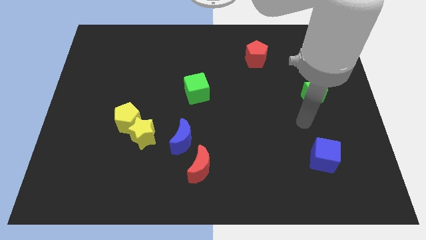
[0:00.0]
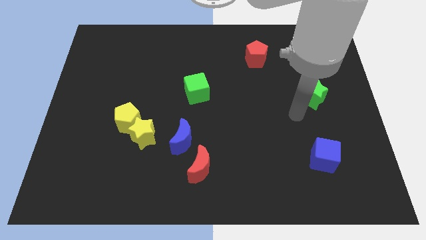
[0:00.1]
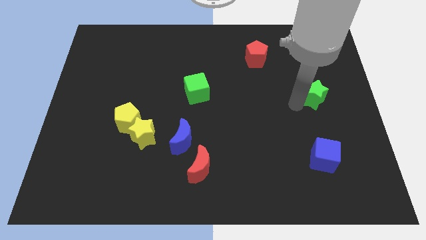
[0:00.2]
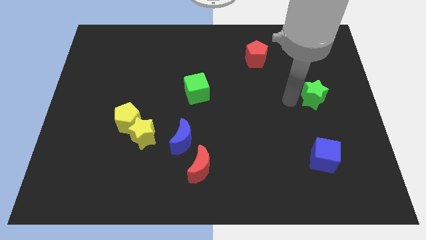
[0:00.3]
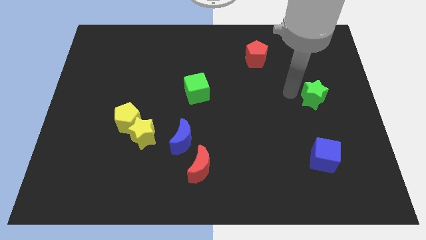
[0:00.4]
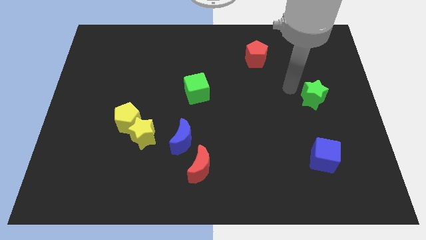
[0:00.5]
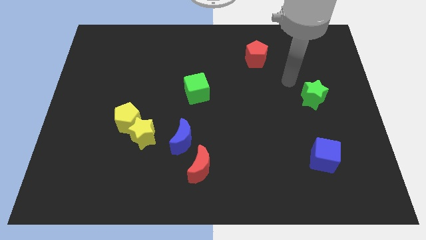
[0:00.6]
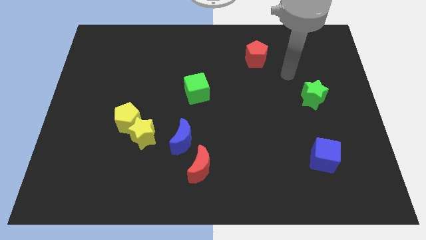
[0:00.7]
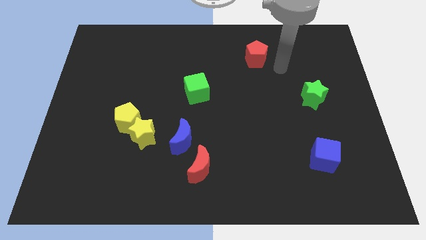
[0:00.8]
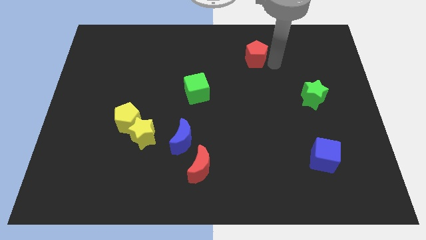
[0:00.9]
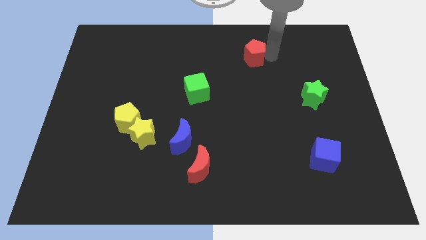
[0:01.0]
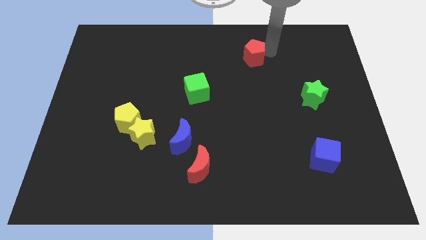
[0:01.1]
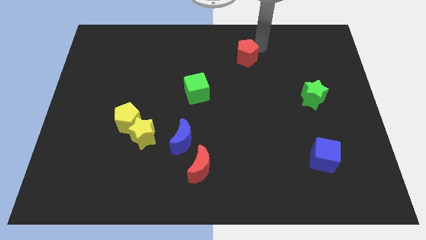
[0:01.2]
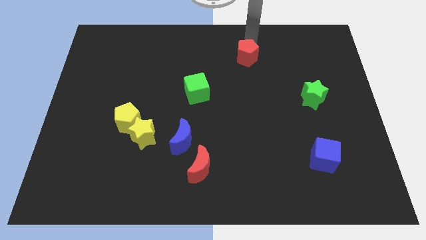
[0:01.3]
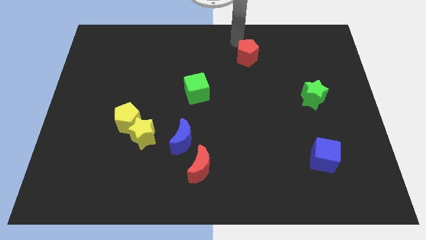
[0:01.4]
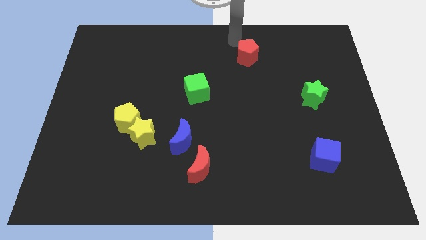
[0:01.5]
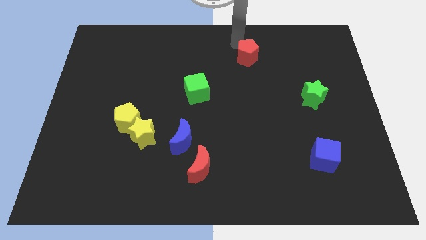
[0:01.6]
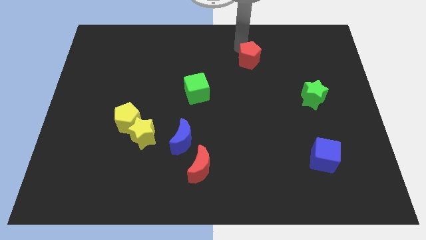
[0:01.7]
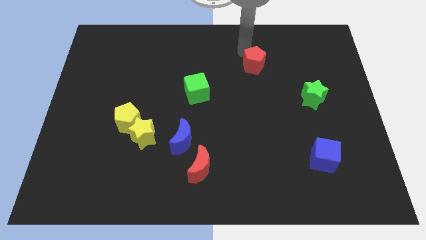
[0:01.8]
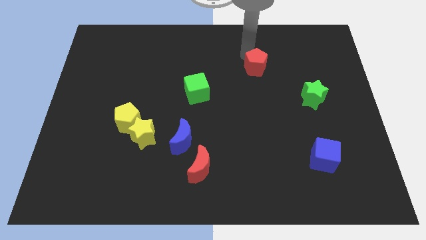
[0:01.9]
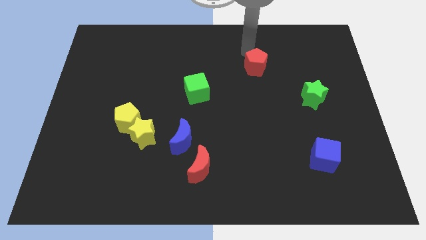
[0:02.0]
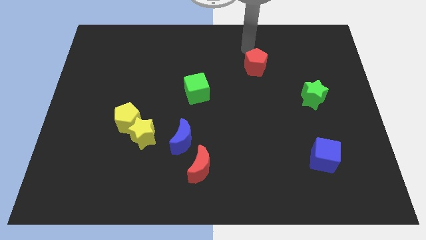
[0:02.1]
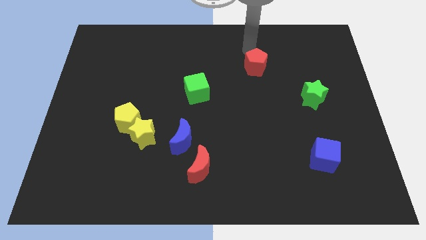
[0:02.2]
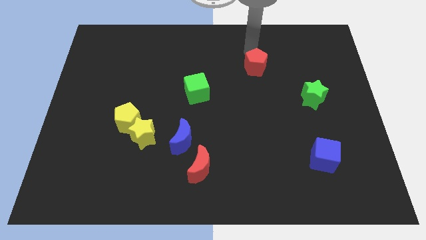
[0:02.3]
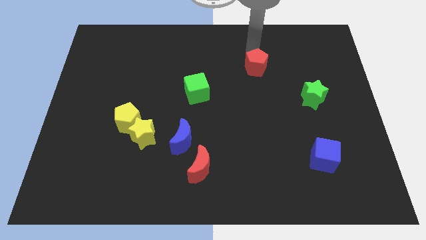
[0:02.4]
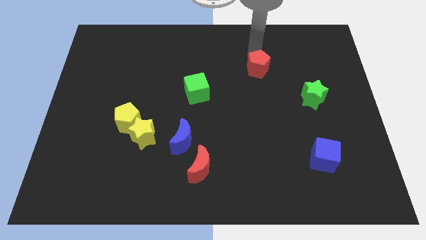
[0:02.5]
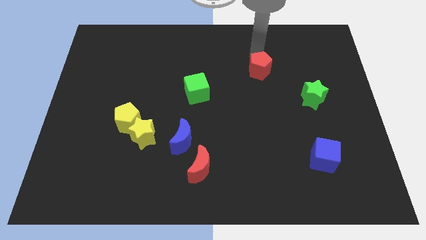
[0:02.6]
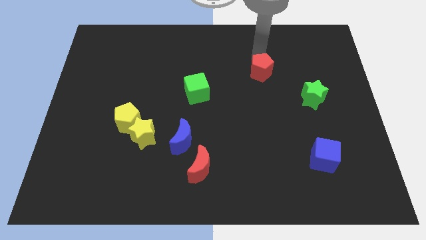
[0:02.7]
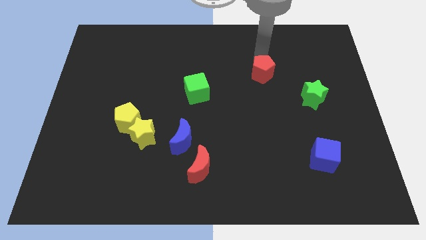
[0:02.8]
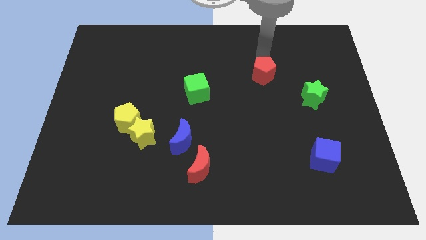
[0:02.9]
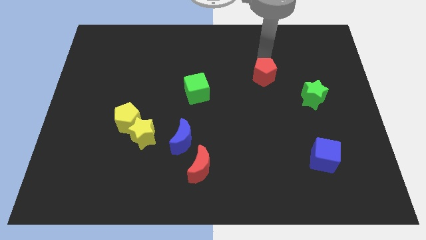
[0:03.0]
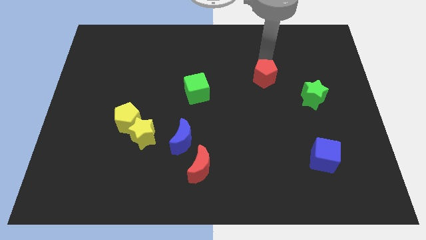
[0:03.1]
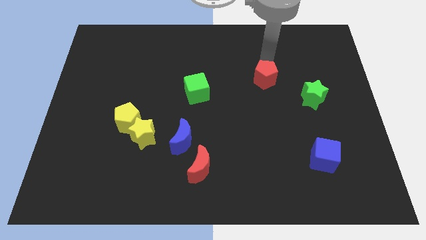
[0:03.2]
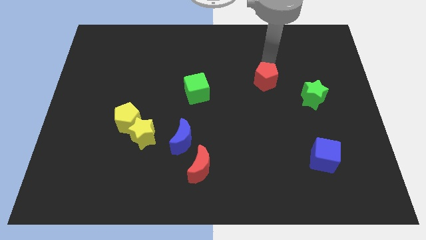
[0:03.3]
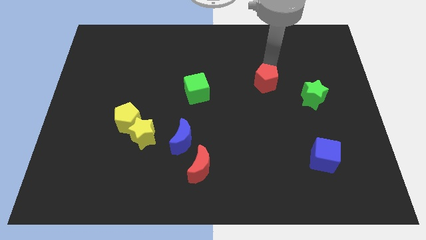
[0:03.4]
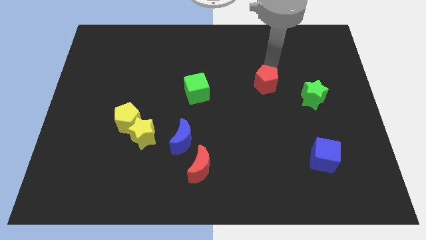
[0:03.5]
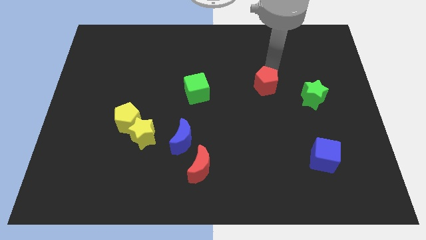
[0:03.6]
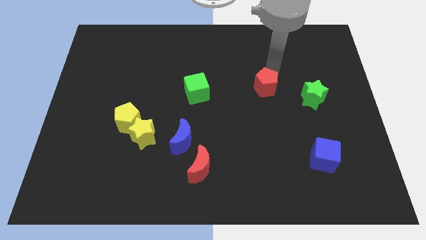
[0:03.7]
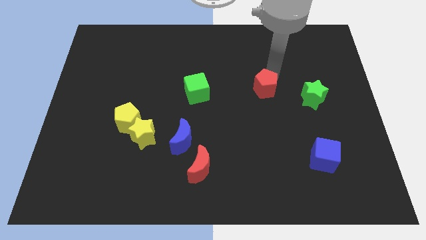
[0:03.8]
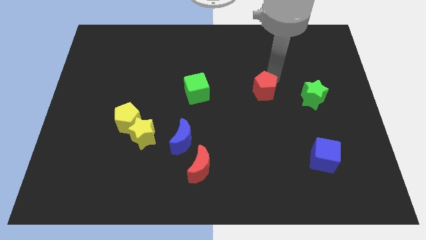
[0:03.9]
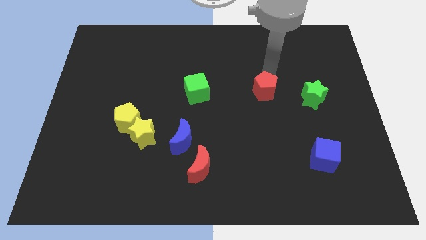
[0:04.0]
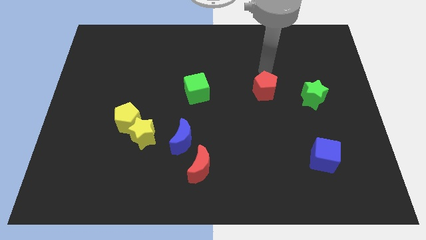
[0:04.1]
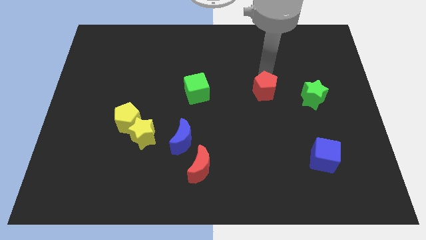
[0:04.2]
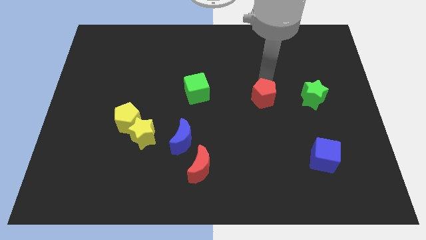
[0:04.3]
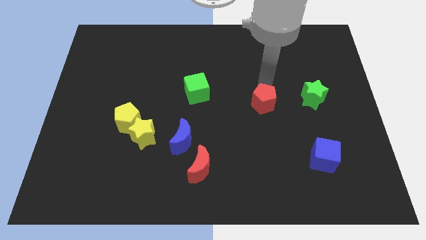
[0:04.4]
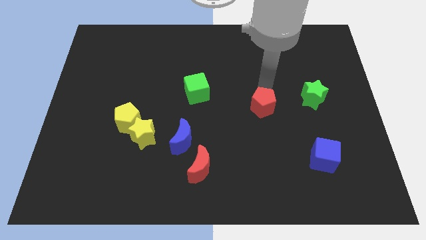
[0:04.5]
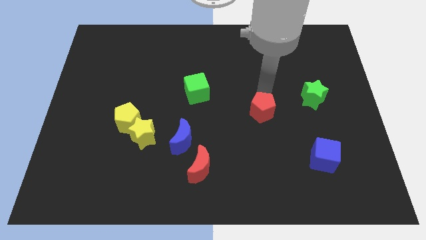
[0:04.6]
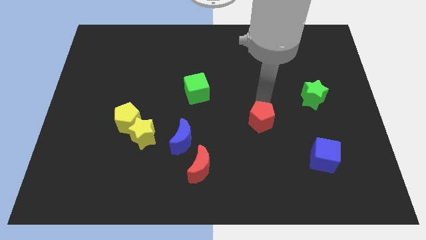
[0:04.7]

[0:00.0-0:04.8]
push the red pentagon downwards

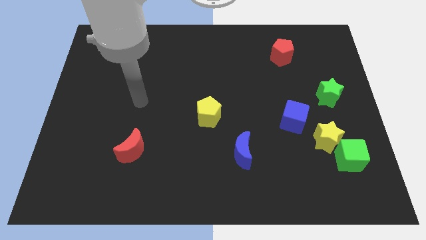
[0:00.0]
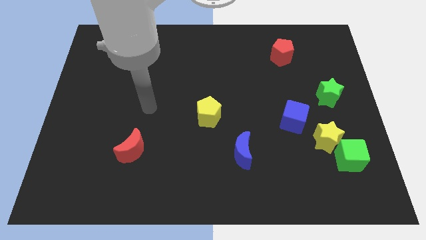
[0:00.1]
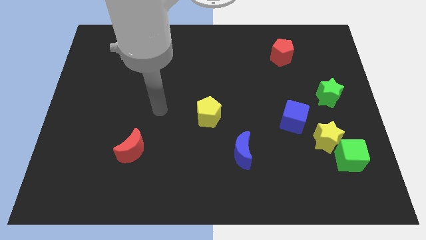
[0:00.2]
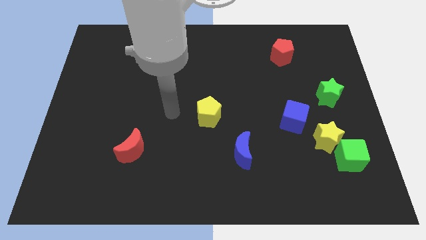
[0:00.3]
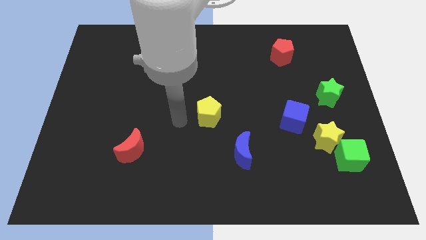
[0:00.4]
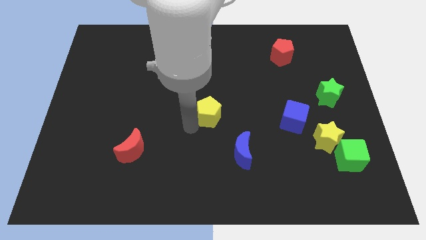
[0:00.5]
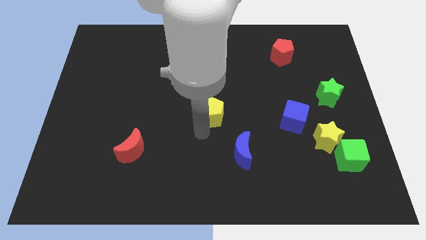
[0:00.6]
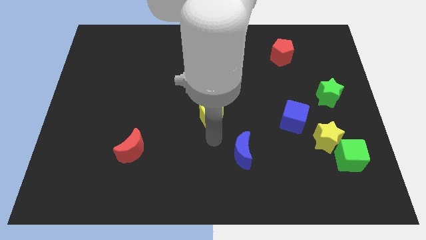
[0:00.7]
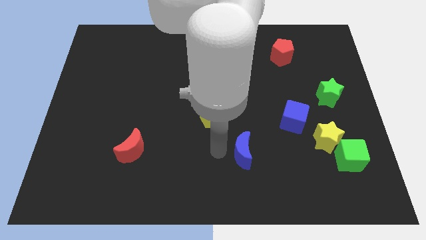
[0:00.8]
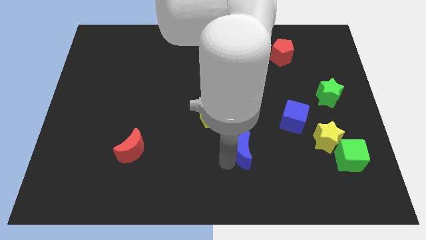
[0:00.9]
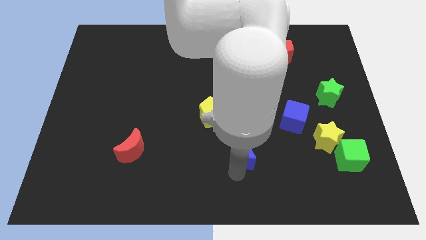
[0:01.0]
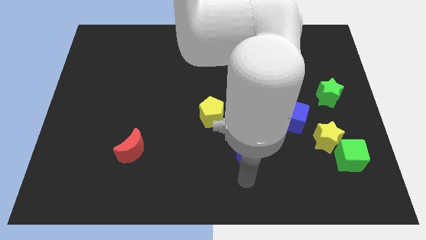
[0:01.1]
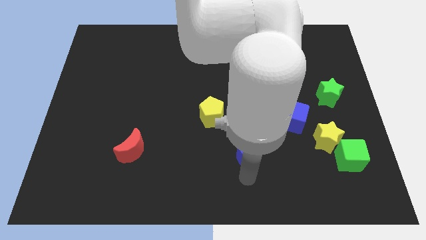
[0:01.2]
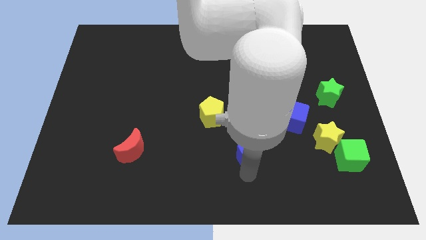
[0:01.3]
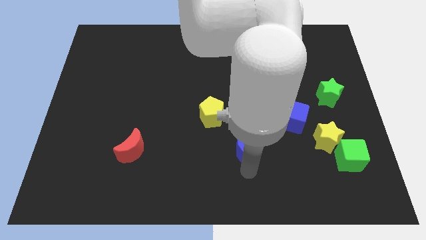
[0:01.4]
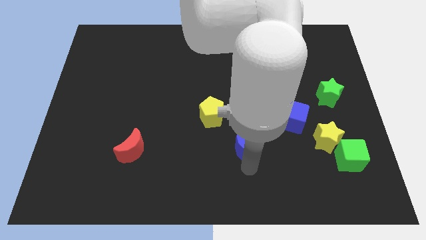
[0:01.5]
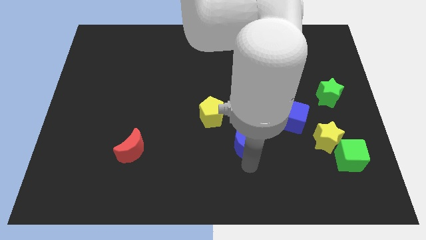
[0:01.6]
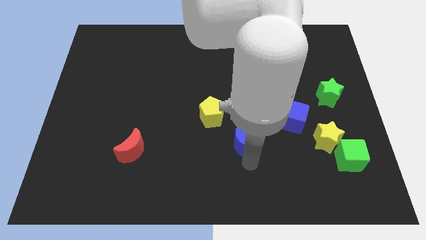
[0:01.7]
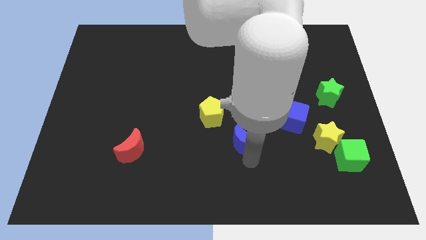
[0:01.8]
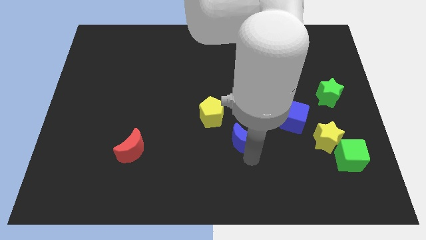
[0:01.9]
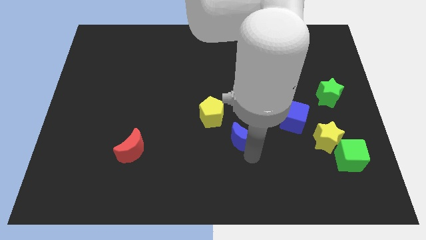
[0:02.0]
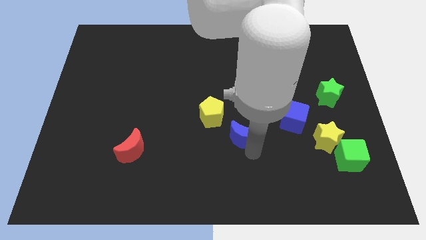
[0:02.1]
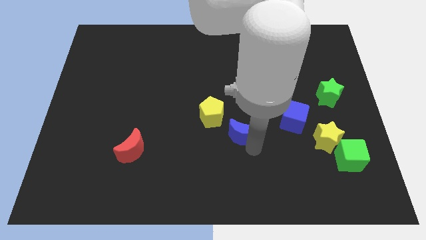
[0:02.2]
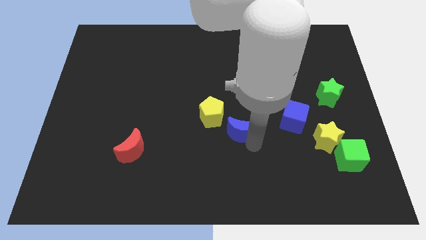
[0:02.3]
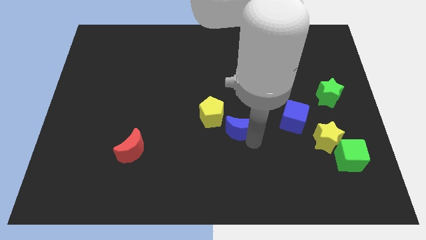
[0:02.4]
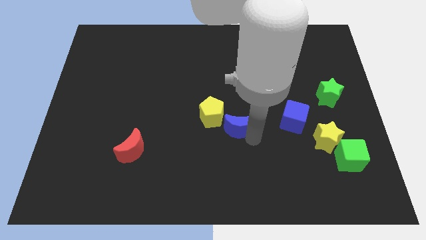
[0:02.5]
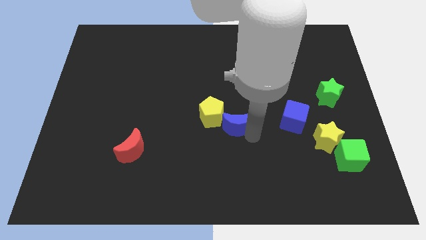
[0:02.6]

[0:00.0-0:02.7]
push the blue moon upwards a little

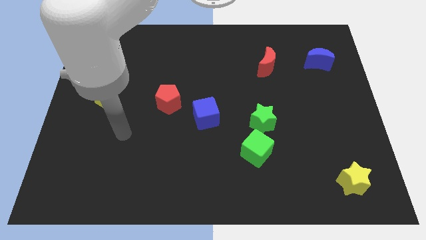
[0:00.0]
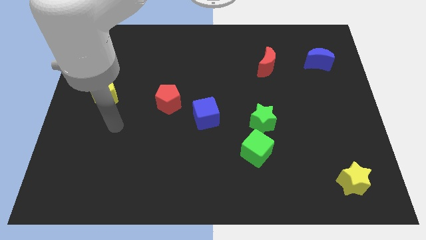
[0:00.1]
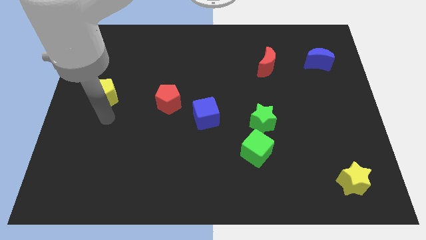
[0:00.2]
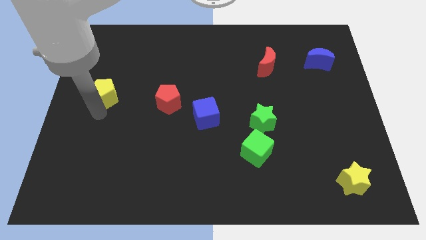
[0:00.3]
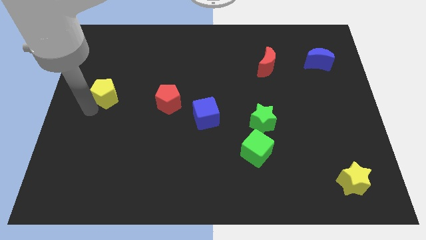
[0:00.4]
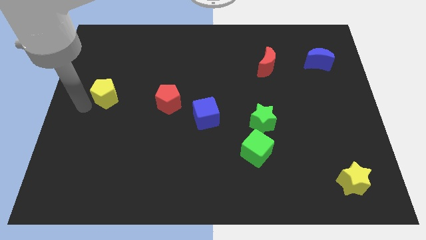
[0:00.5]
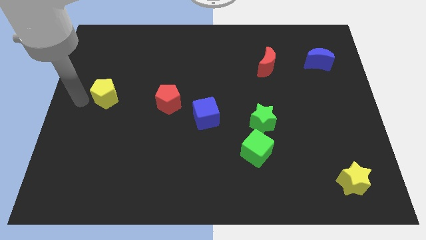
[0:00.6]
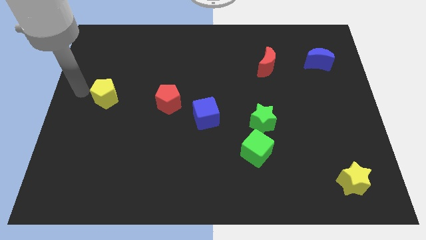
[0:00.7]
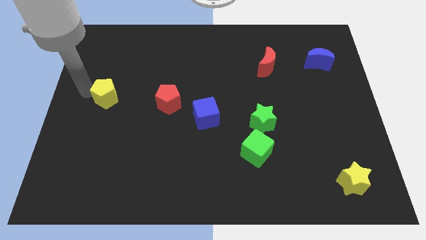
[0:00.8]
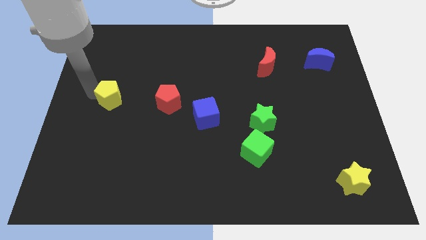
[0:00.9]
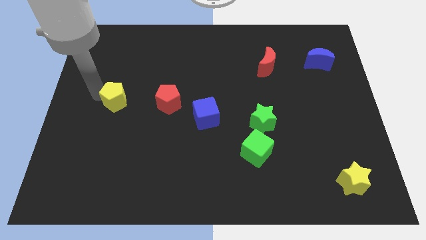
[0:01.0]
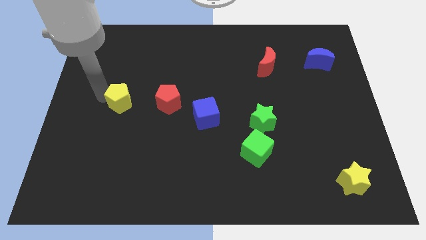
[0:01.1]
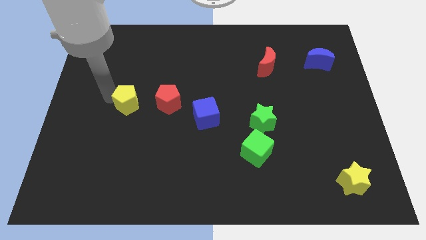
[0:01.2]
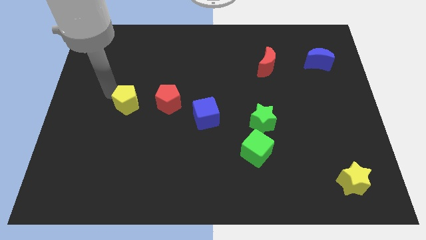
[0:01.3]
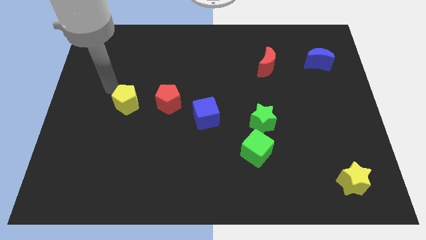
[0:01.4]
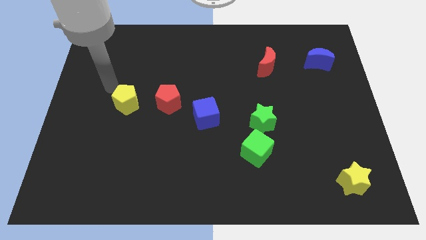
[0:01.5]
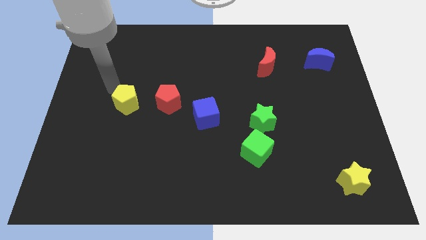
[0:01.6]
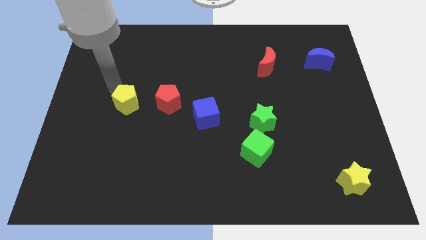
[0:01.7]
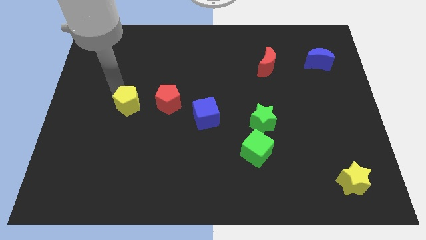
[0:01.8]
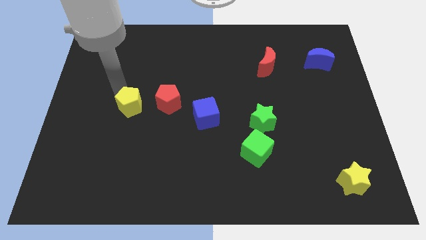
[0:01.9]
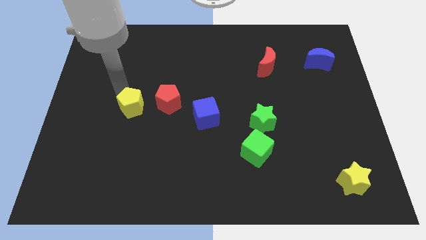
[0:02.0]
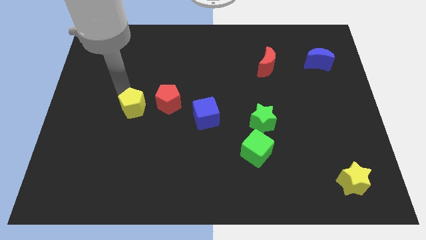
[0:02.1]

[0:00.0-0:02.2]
move the yellow pentagon a little bit downwards and then right
